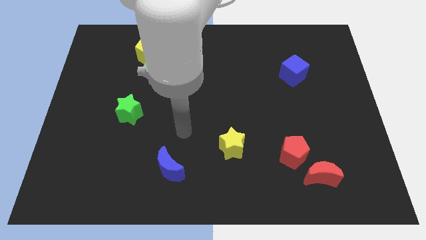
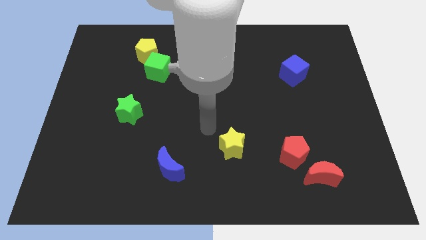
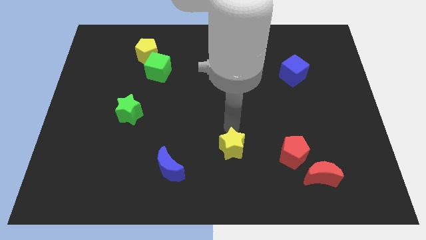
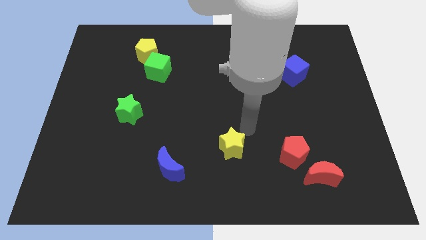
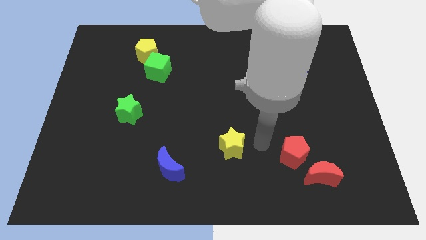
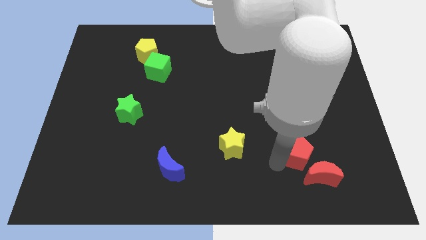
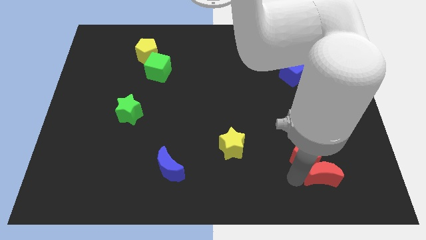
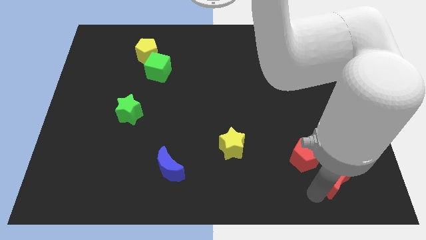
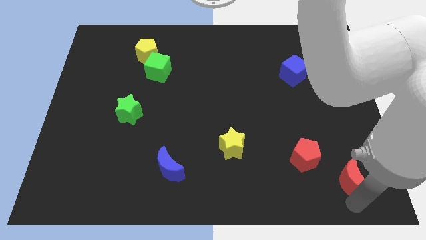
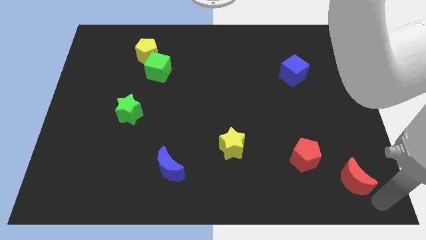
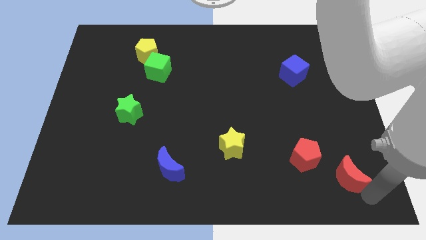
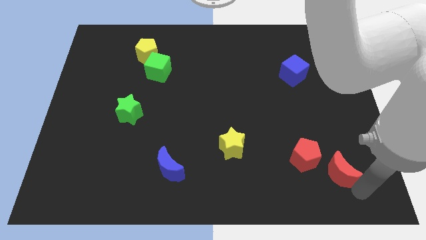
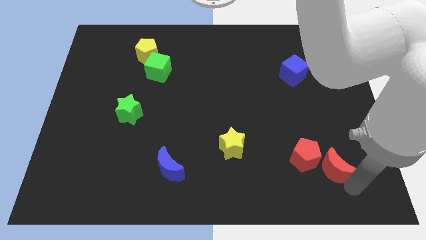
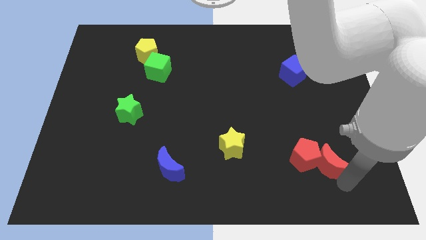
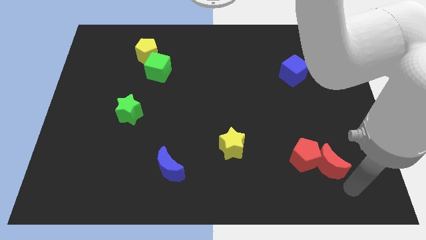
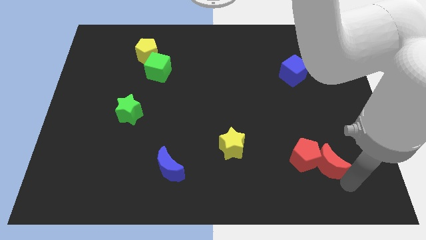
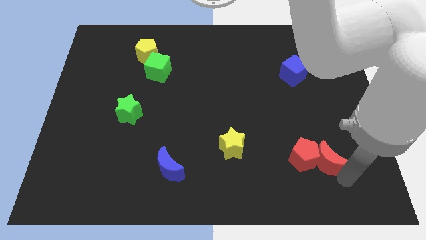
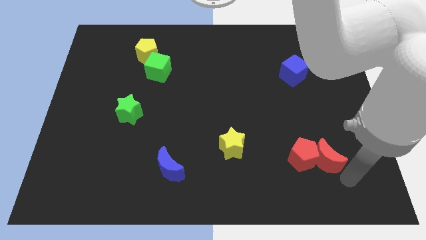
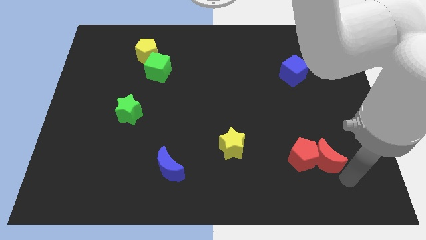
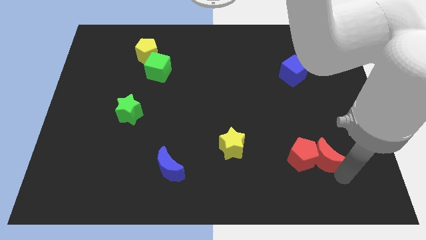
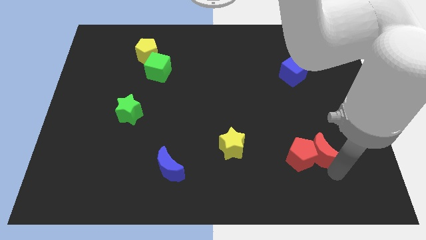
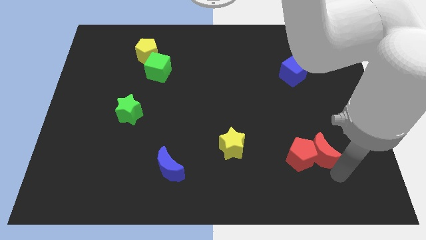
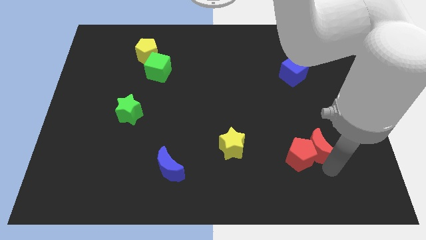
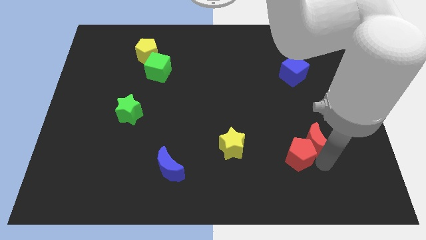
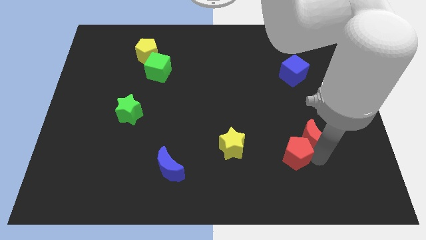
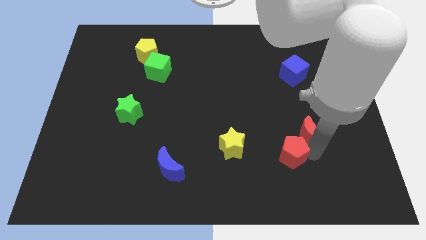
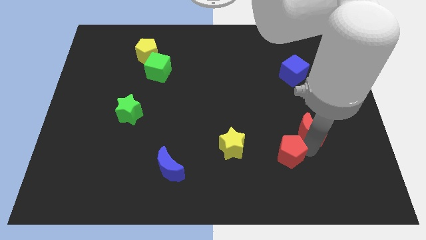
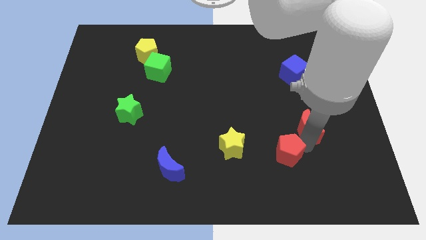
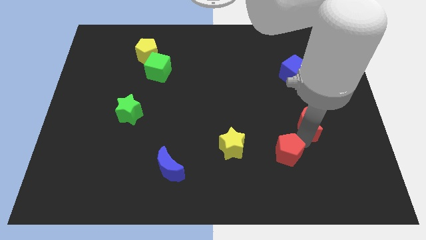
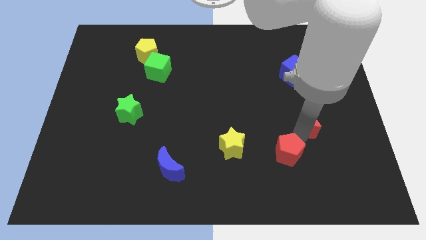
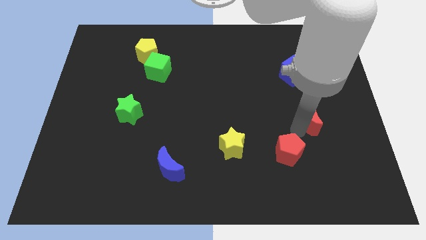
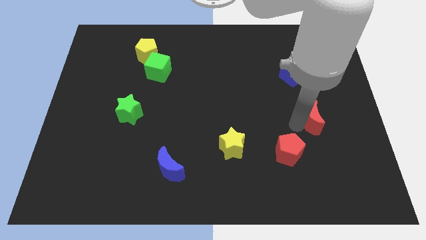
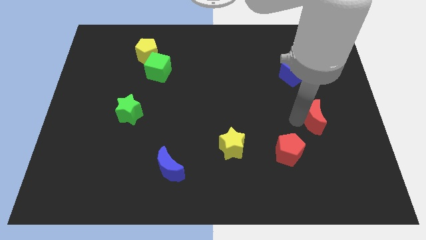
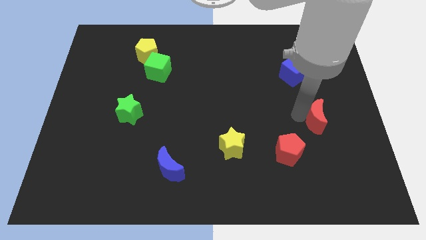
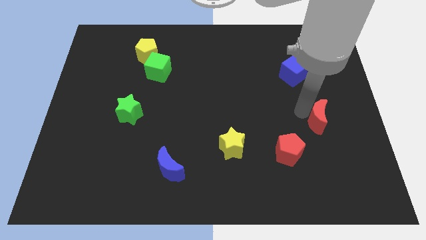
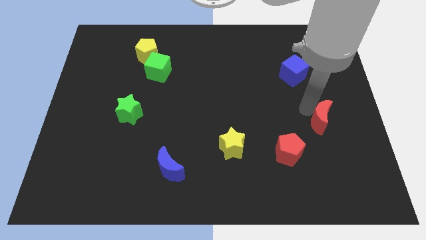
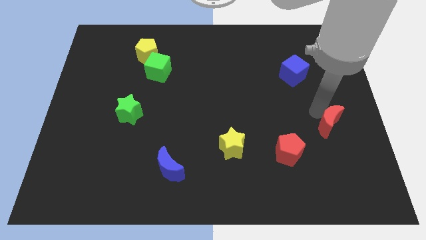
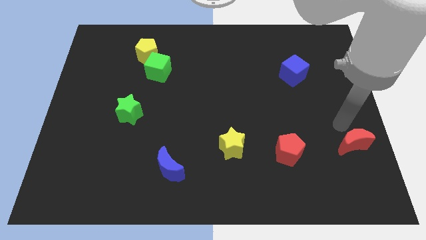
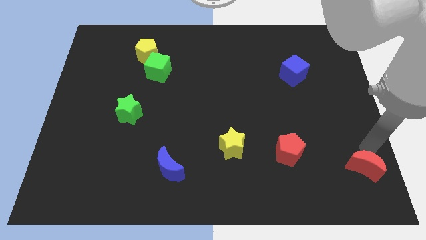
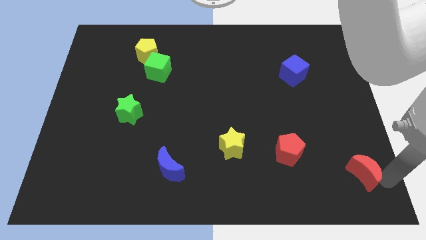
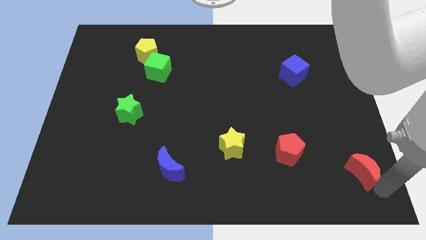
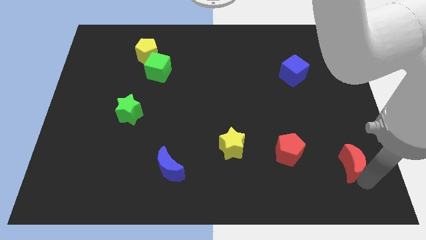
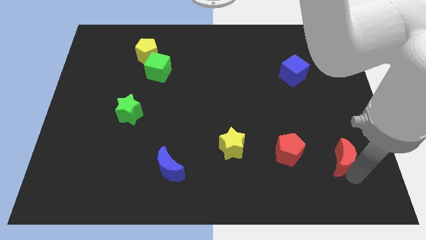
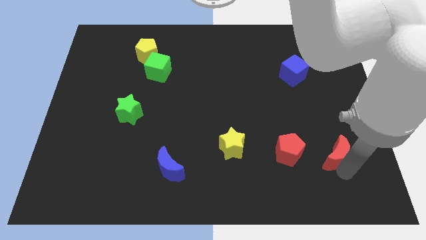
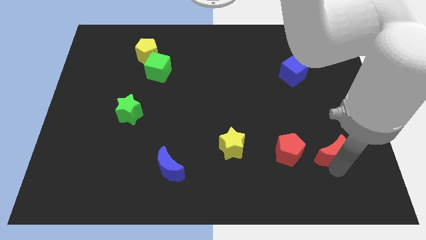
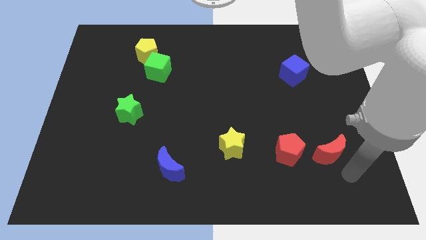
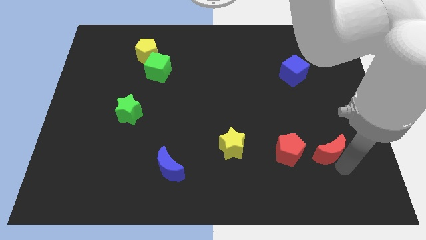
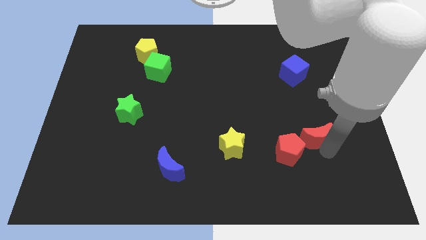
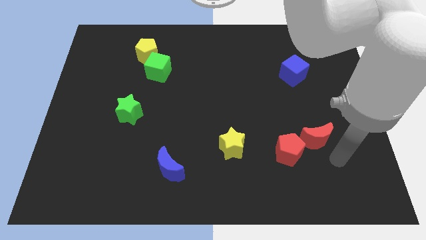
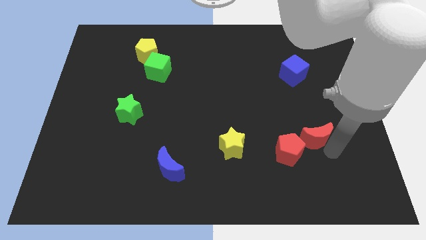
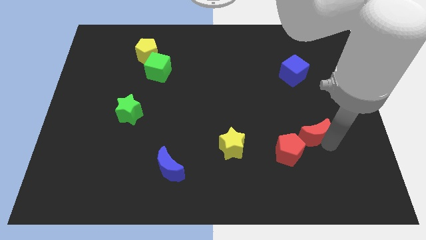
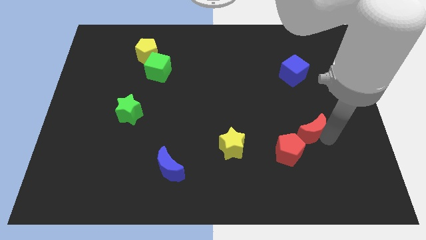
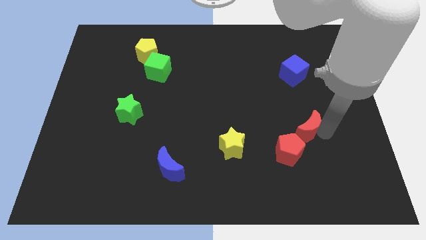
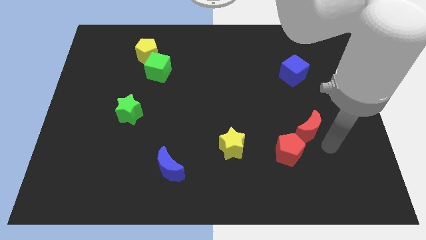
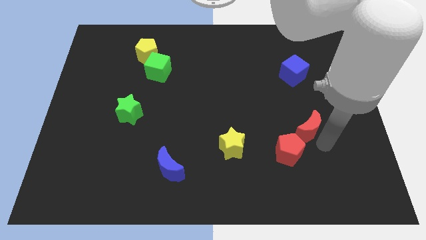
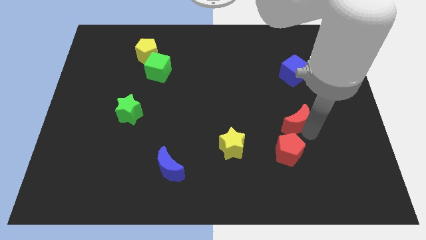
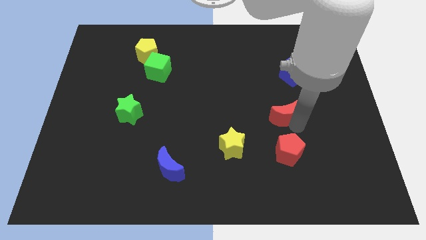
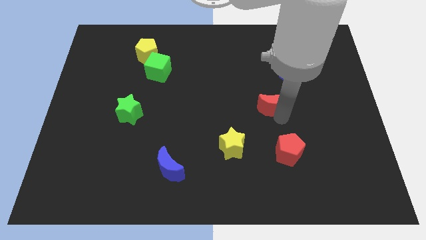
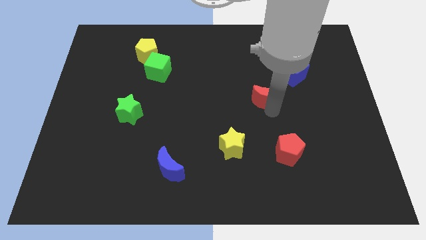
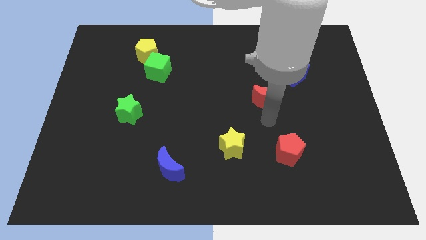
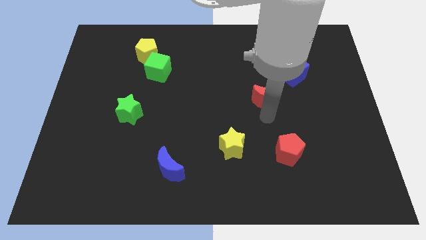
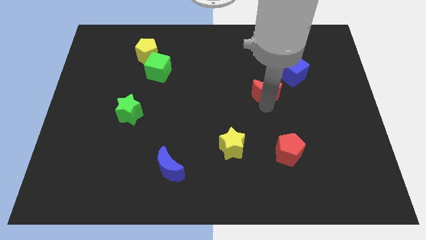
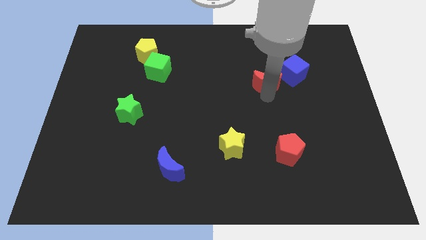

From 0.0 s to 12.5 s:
move the red moon to the left of the blue cube
